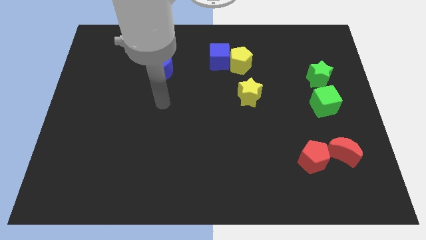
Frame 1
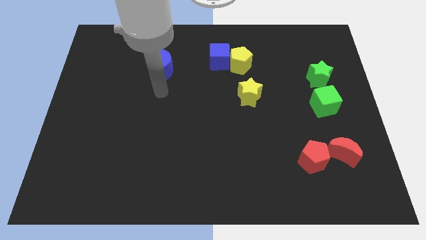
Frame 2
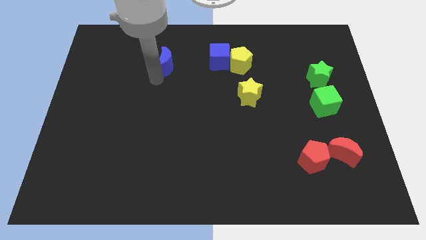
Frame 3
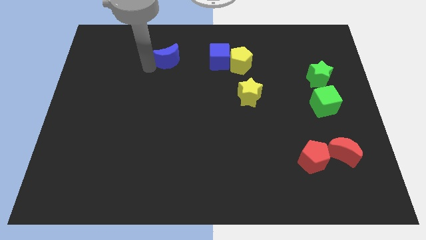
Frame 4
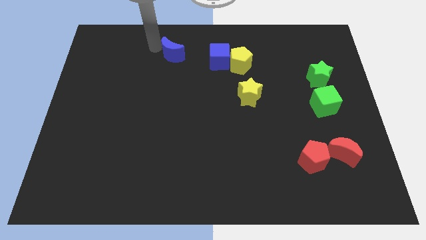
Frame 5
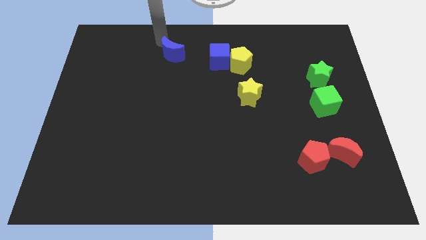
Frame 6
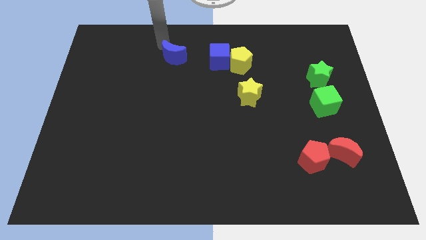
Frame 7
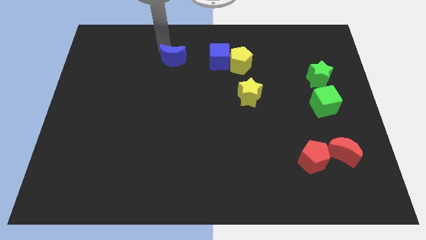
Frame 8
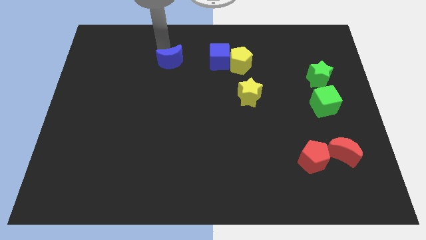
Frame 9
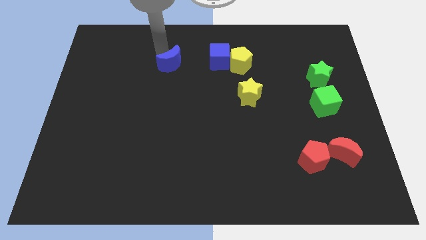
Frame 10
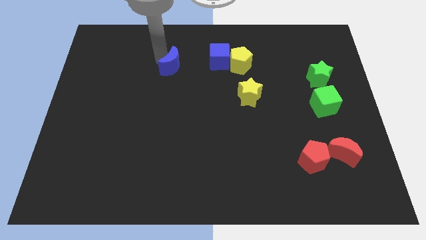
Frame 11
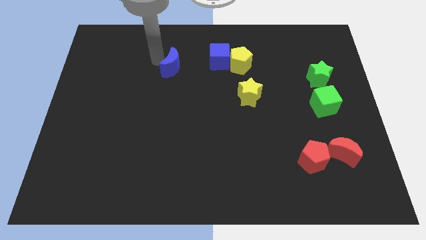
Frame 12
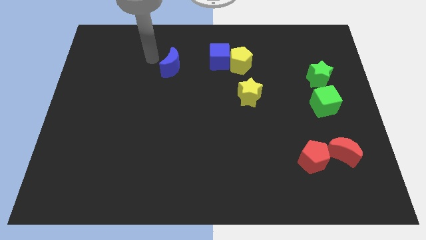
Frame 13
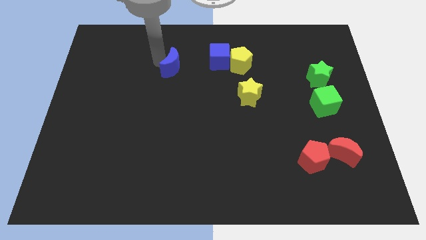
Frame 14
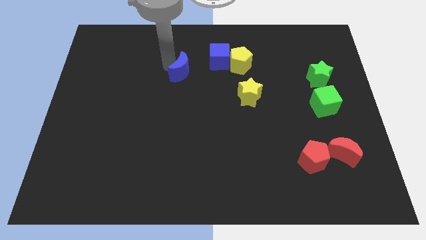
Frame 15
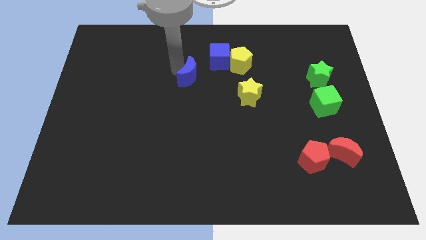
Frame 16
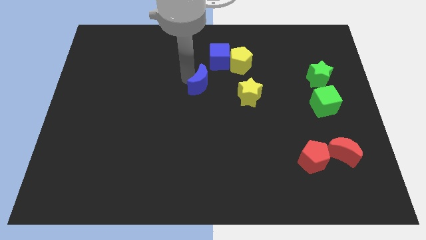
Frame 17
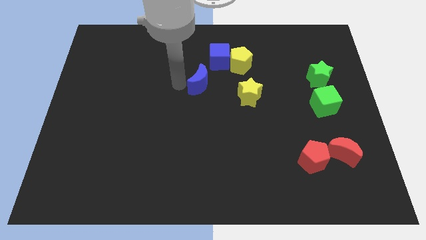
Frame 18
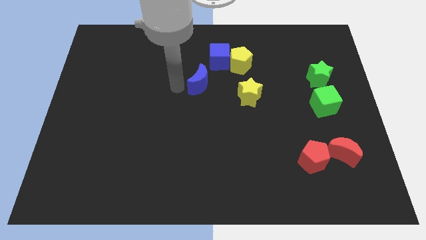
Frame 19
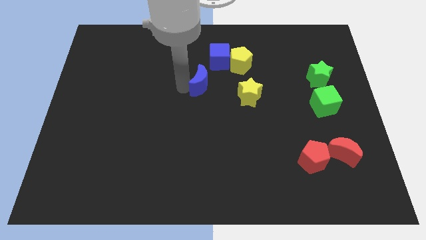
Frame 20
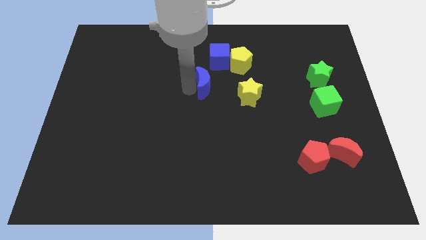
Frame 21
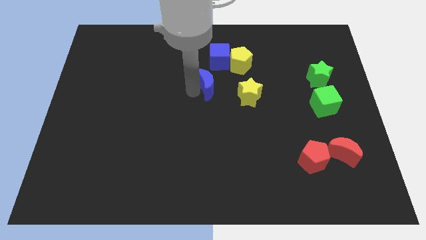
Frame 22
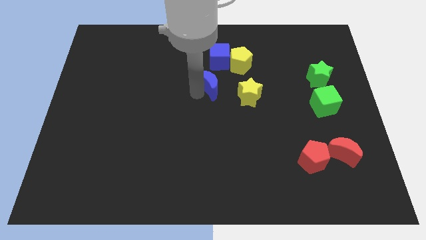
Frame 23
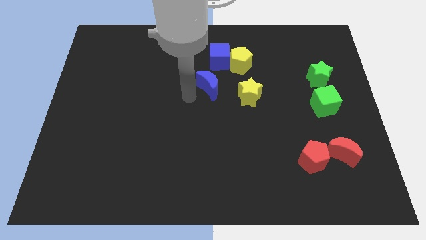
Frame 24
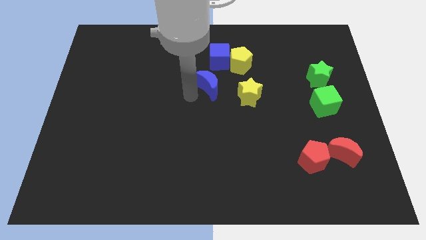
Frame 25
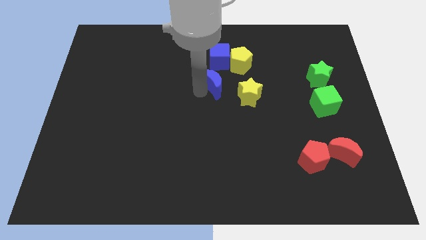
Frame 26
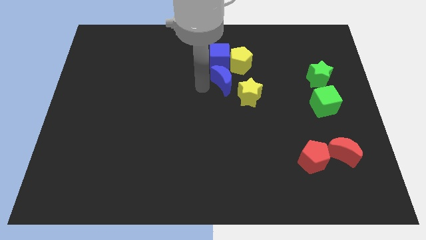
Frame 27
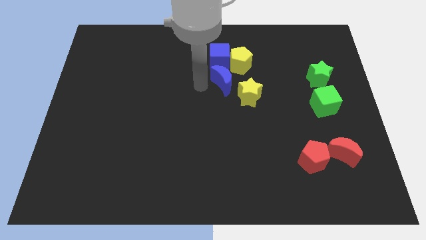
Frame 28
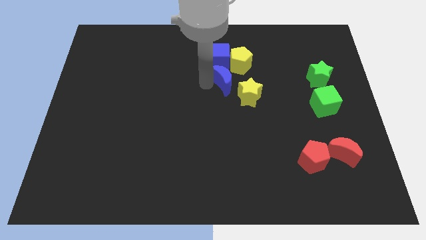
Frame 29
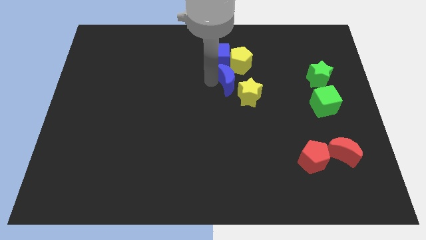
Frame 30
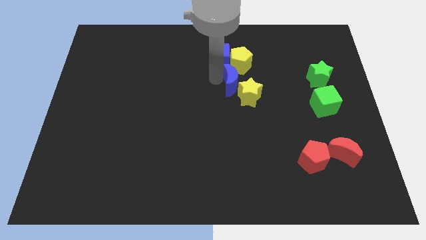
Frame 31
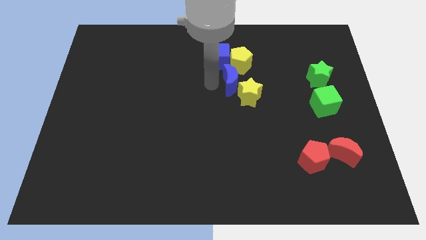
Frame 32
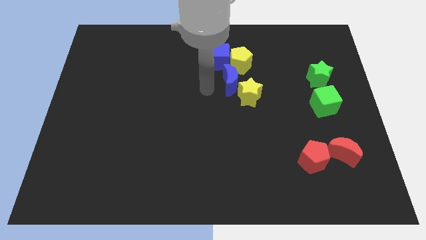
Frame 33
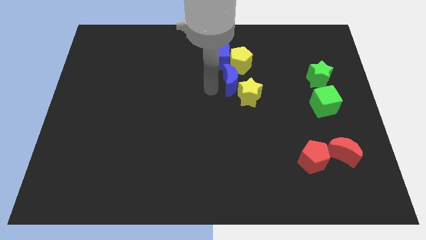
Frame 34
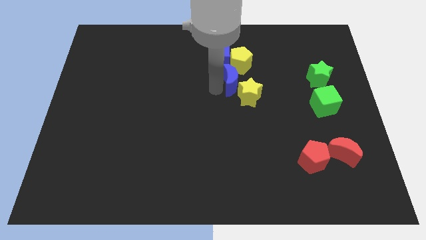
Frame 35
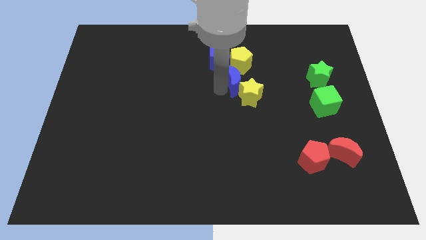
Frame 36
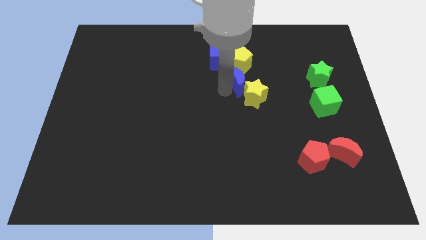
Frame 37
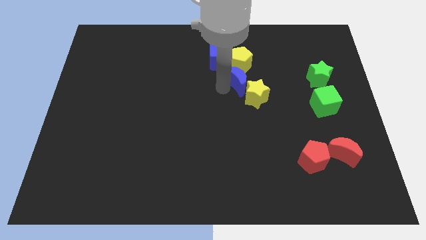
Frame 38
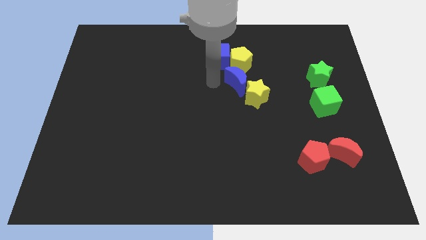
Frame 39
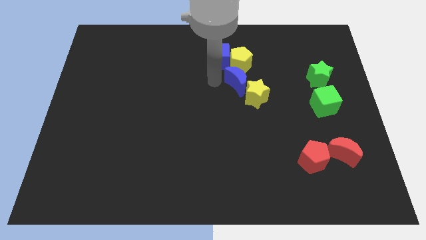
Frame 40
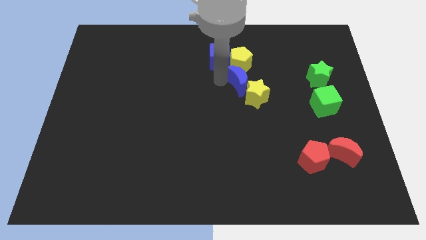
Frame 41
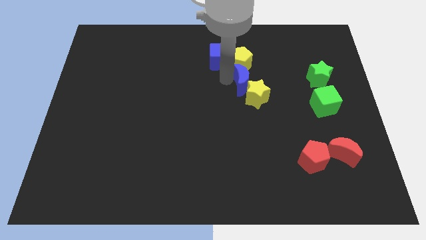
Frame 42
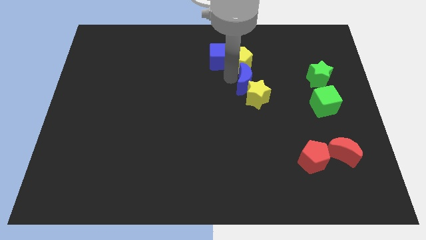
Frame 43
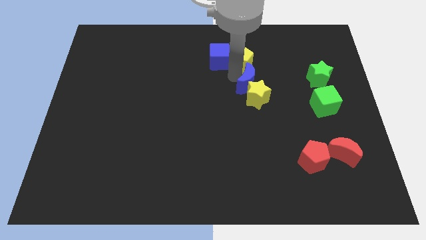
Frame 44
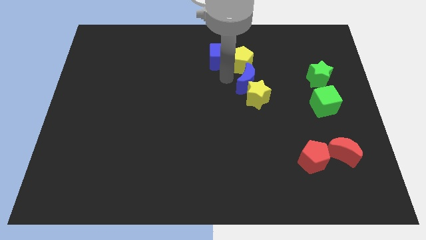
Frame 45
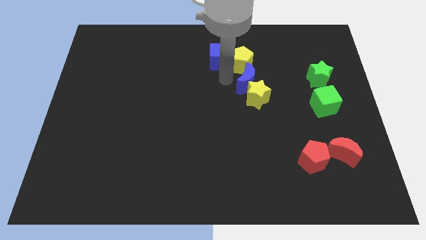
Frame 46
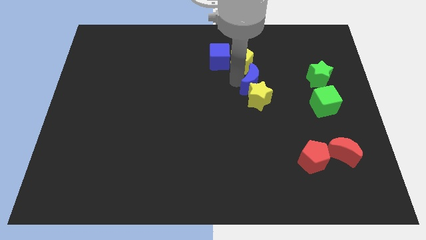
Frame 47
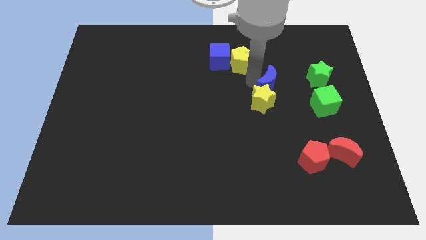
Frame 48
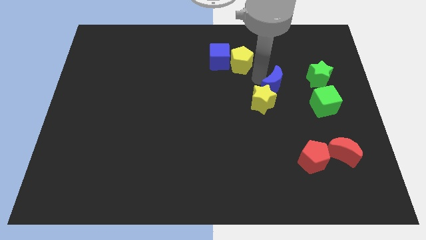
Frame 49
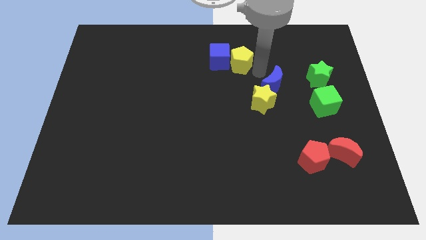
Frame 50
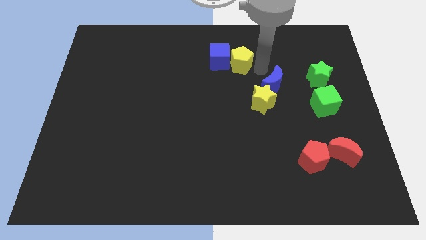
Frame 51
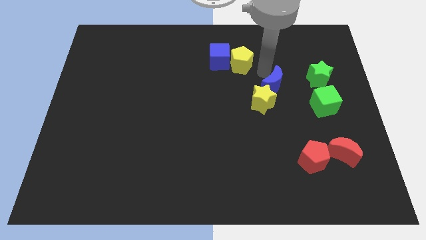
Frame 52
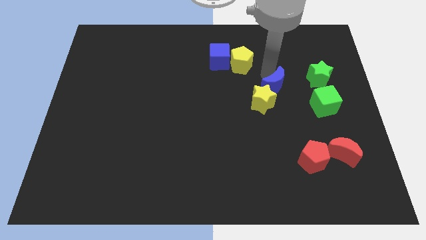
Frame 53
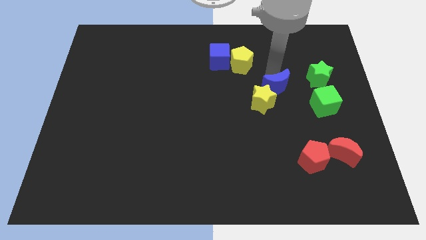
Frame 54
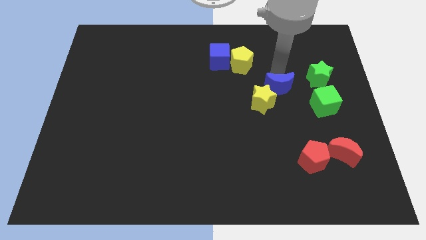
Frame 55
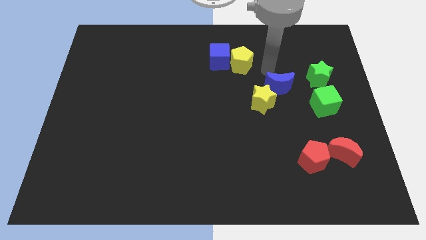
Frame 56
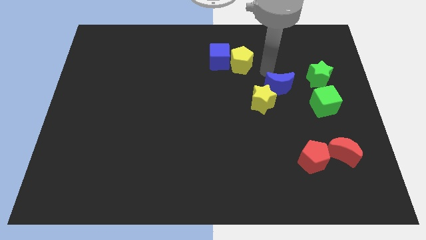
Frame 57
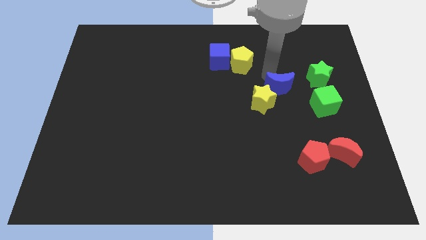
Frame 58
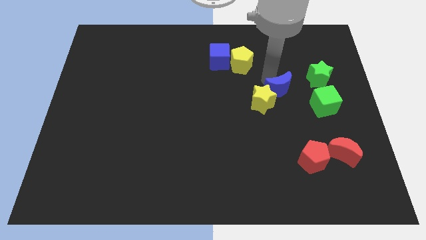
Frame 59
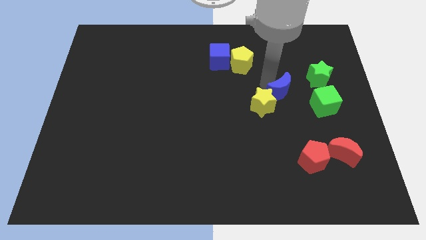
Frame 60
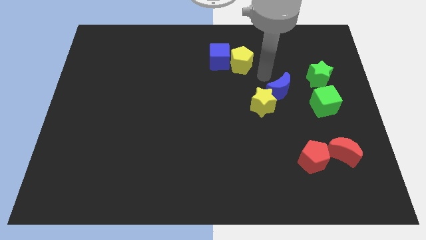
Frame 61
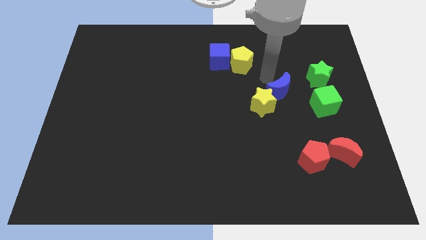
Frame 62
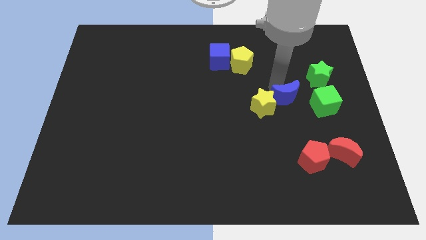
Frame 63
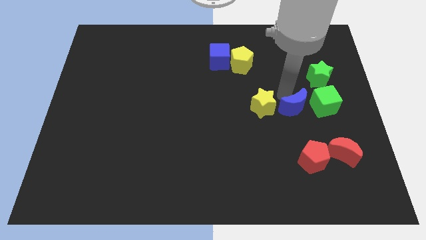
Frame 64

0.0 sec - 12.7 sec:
put the blue moon diagonally down and to the left of the green cube

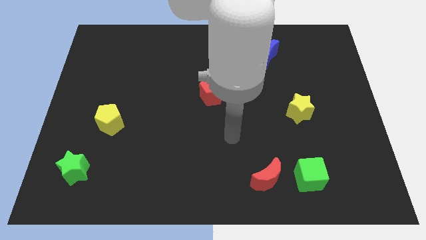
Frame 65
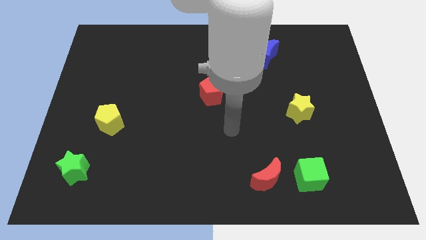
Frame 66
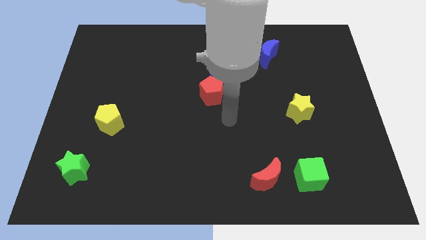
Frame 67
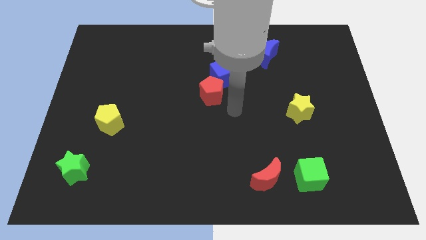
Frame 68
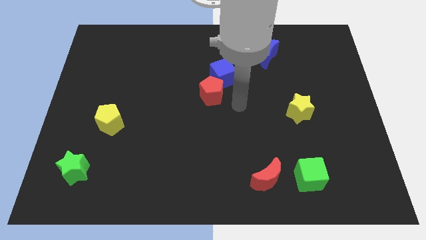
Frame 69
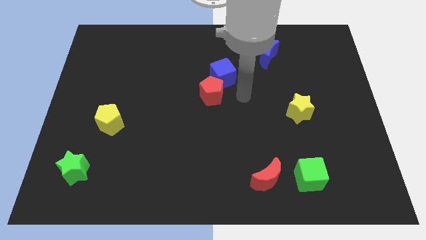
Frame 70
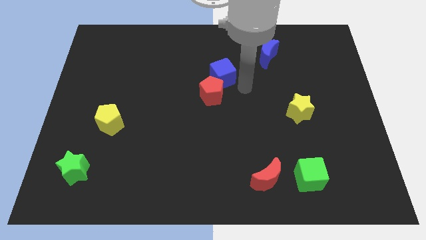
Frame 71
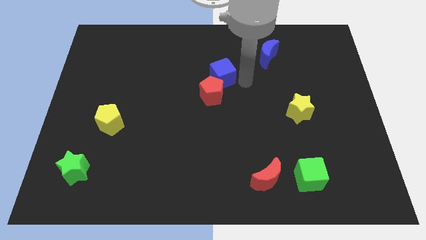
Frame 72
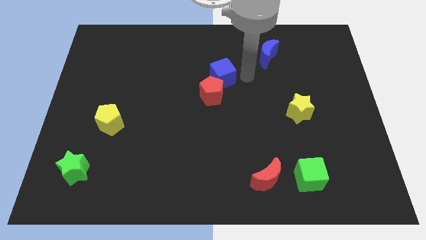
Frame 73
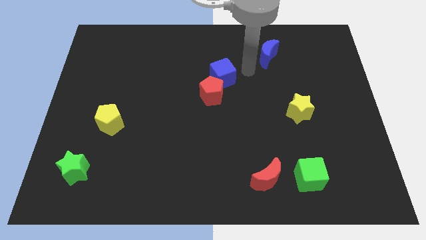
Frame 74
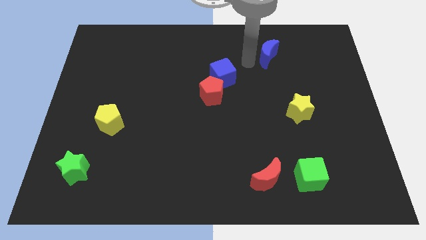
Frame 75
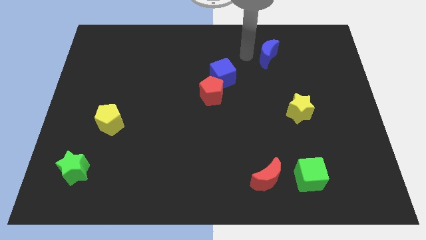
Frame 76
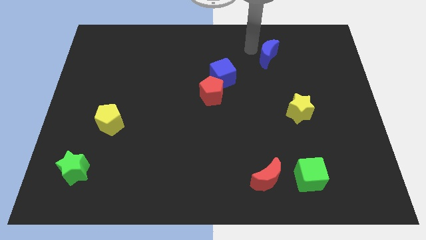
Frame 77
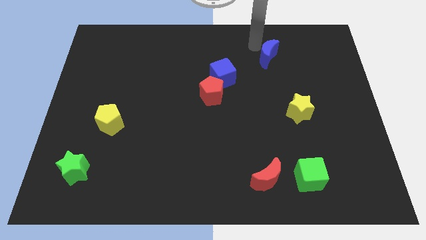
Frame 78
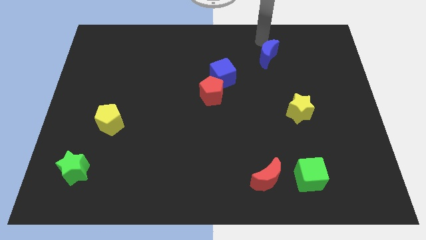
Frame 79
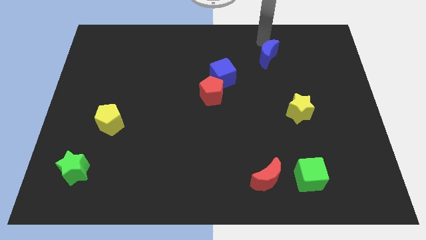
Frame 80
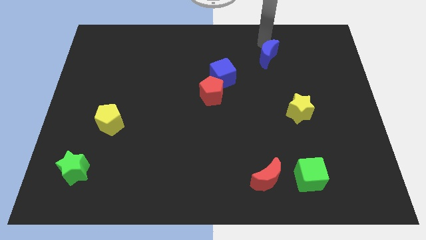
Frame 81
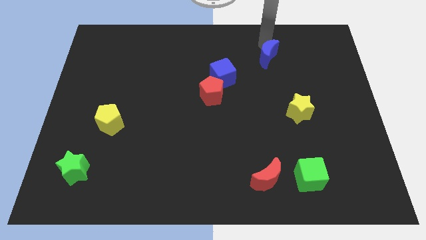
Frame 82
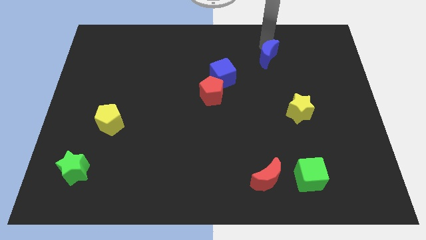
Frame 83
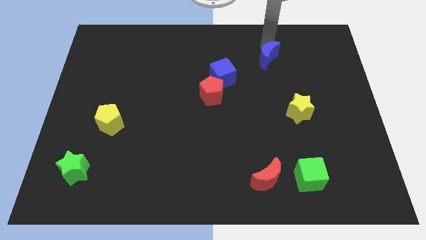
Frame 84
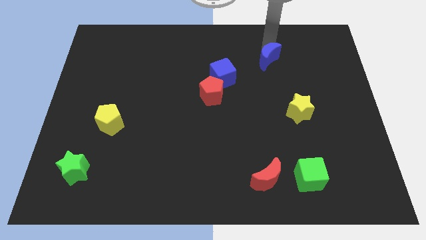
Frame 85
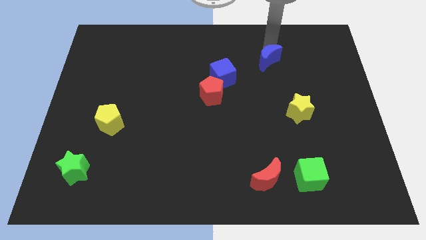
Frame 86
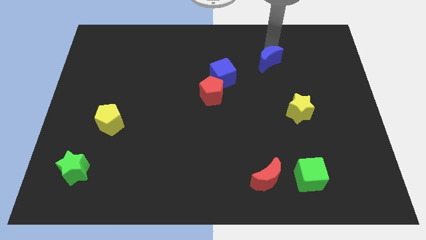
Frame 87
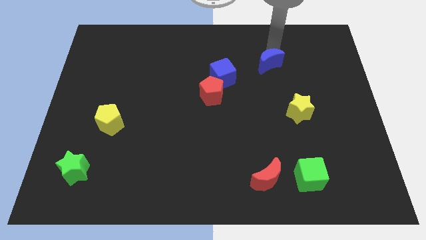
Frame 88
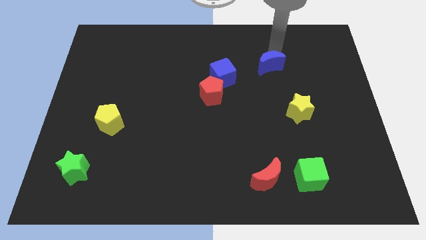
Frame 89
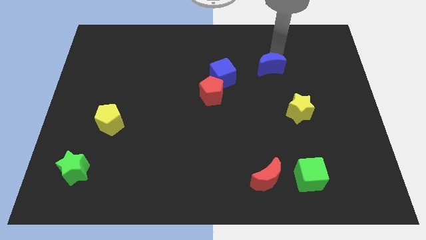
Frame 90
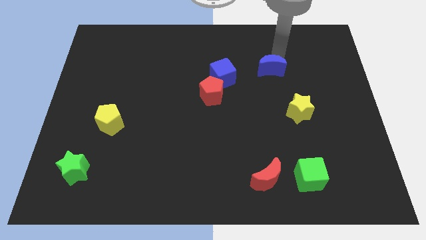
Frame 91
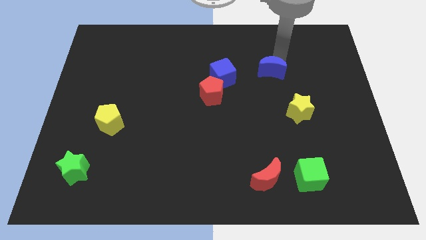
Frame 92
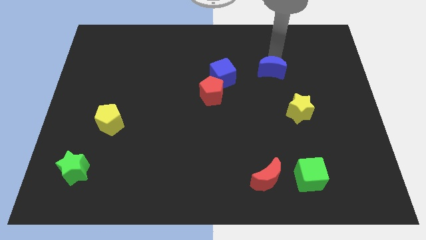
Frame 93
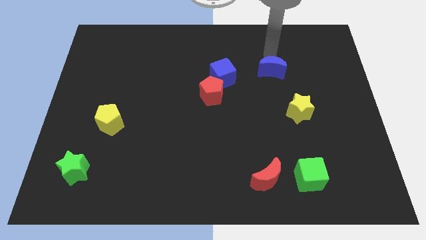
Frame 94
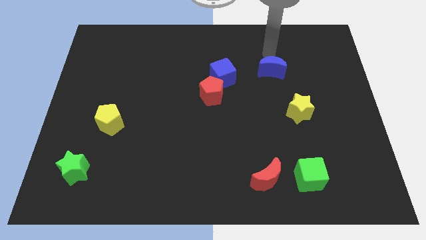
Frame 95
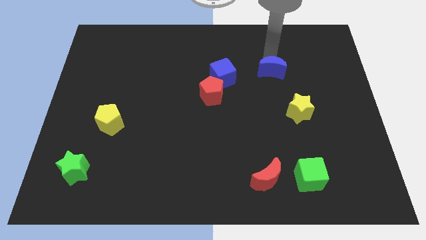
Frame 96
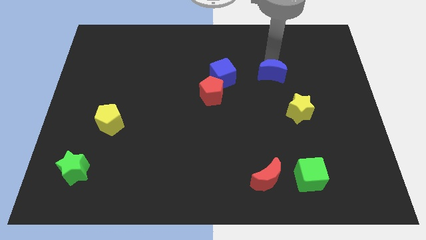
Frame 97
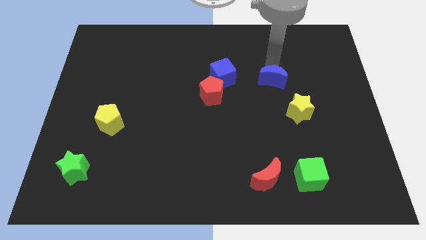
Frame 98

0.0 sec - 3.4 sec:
push the blue moon to the top left side of the yellow star
